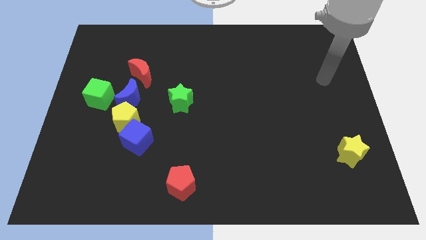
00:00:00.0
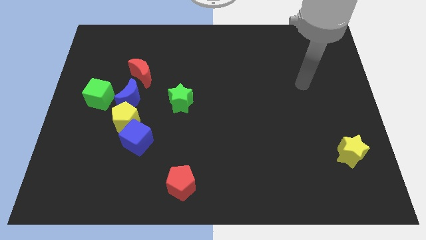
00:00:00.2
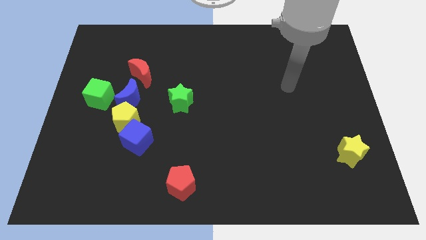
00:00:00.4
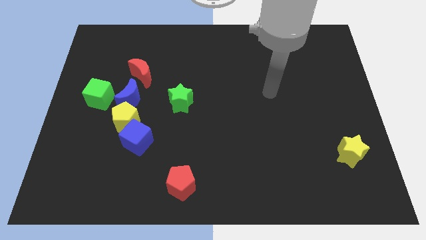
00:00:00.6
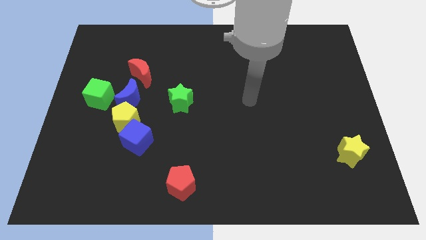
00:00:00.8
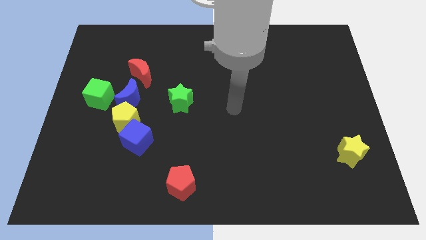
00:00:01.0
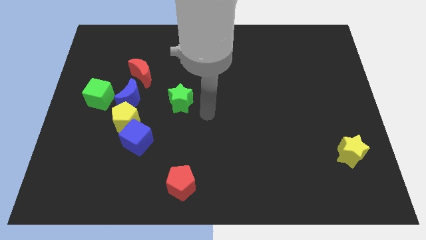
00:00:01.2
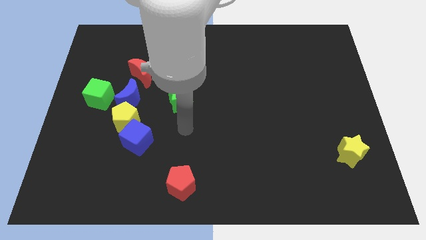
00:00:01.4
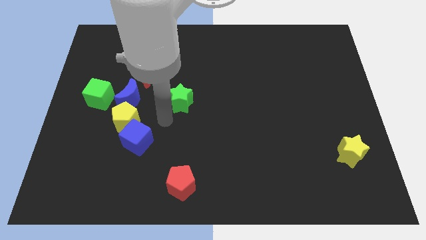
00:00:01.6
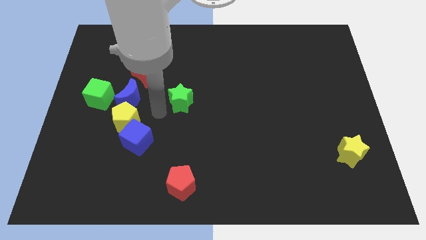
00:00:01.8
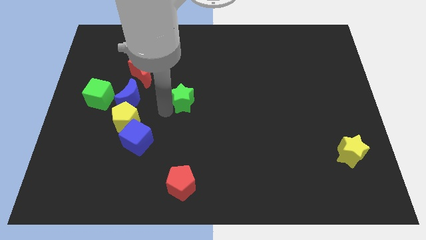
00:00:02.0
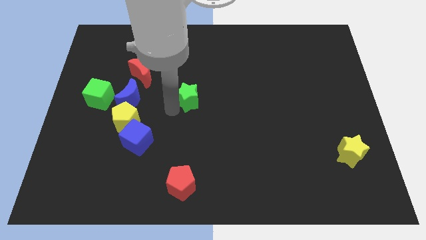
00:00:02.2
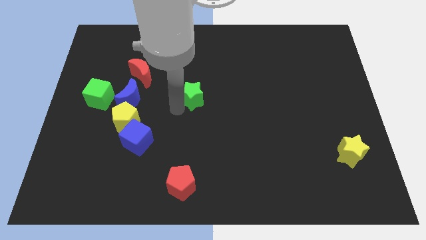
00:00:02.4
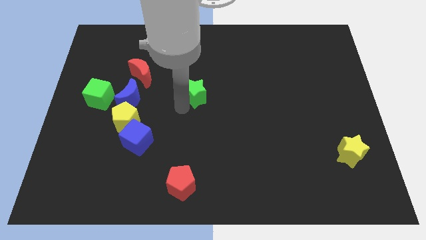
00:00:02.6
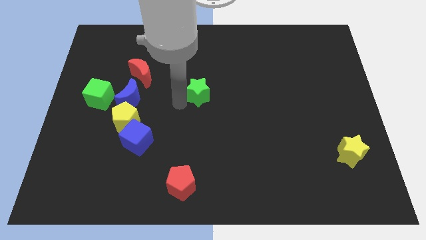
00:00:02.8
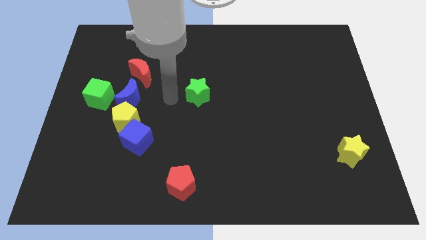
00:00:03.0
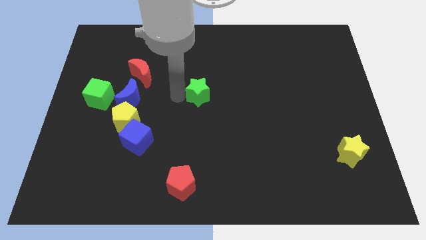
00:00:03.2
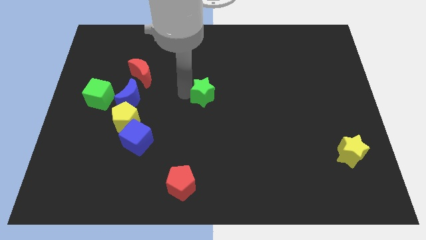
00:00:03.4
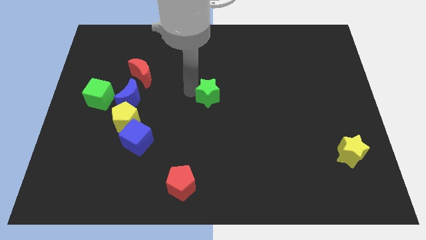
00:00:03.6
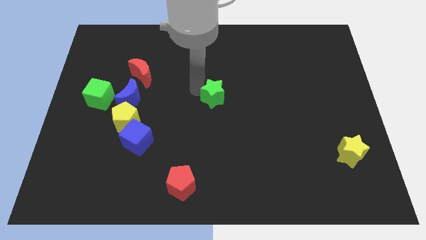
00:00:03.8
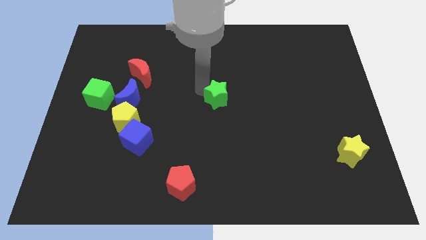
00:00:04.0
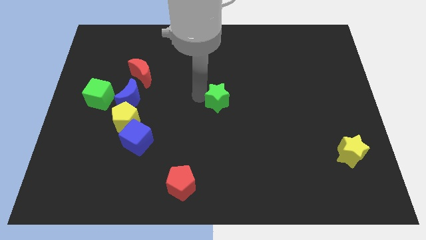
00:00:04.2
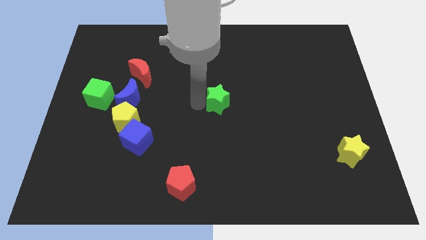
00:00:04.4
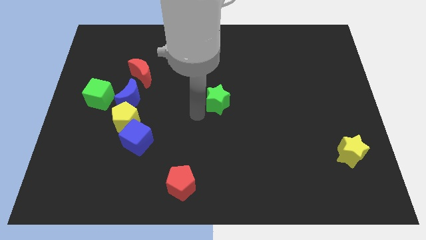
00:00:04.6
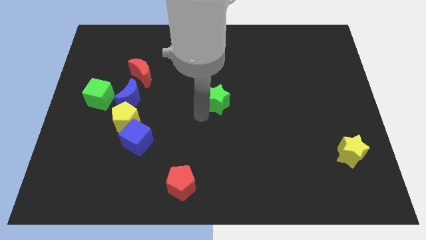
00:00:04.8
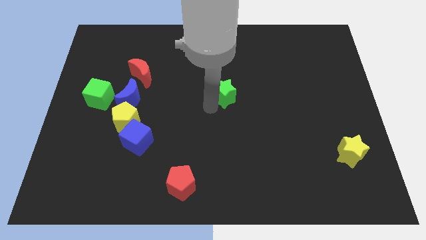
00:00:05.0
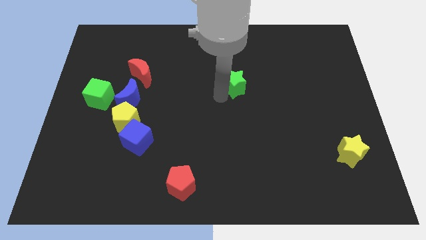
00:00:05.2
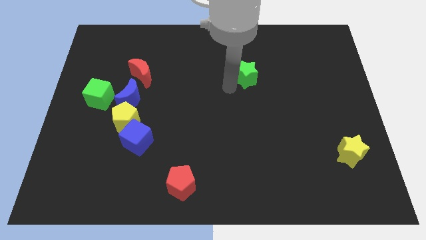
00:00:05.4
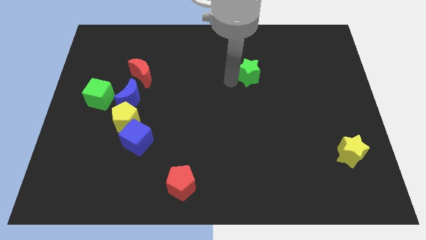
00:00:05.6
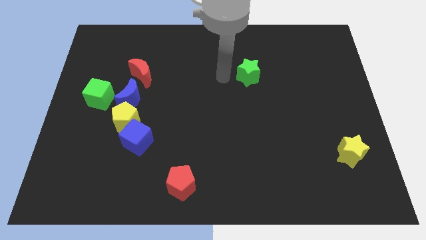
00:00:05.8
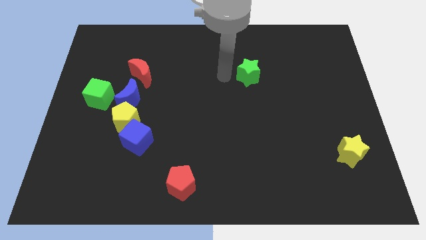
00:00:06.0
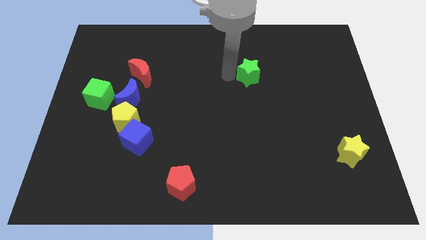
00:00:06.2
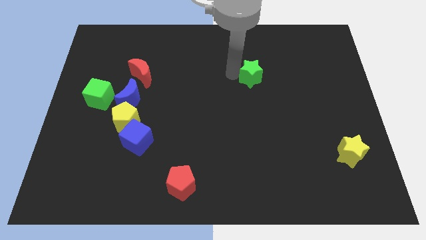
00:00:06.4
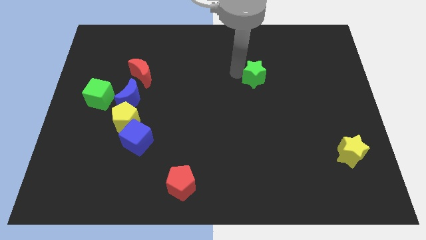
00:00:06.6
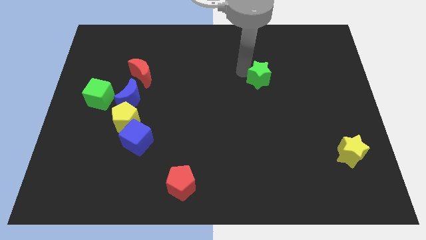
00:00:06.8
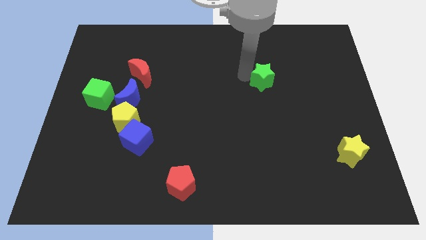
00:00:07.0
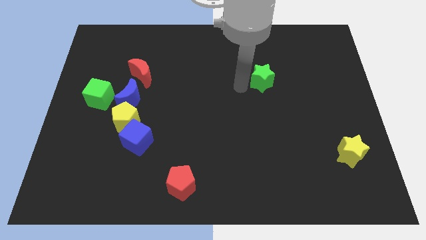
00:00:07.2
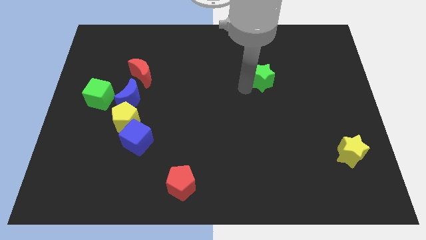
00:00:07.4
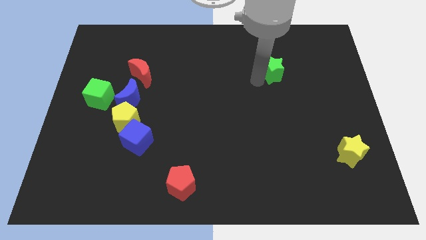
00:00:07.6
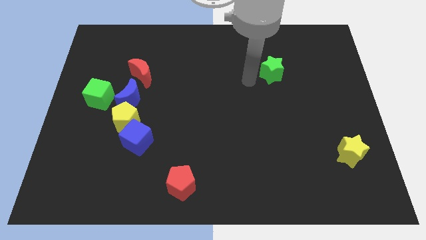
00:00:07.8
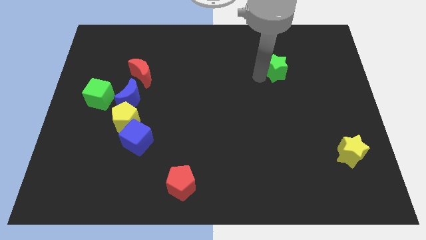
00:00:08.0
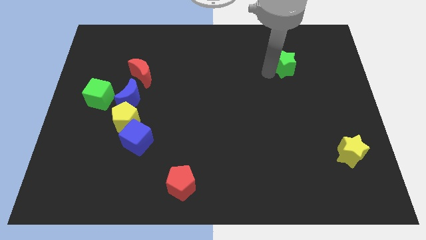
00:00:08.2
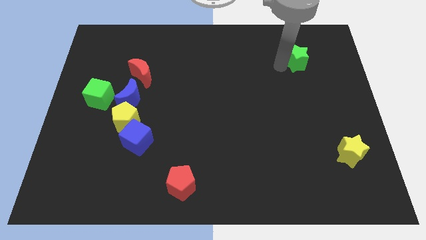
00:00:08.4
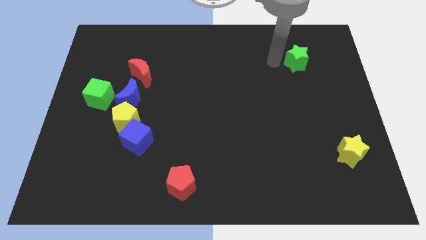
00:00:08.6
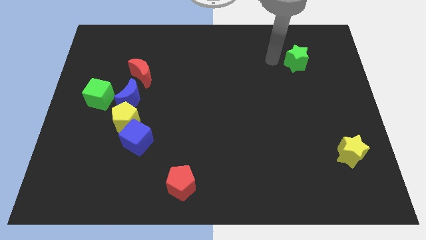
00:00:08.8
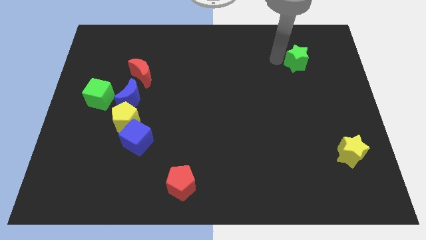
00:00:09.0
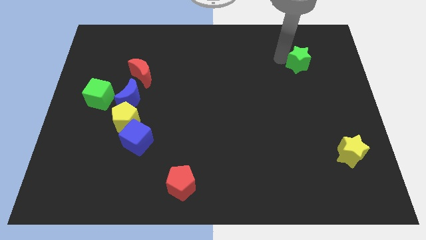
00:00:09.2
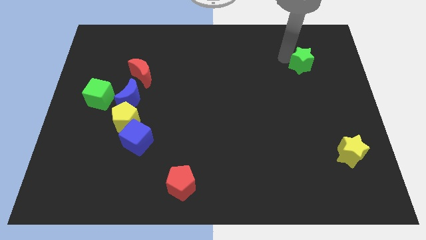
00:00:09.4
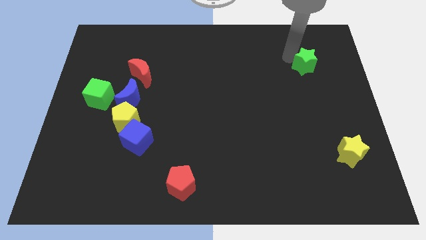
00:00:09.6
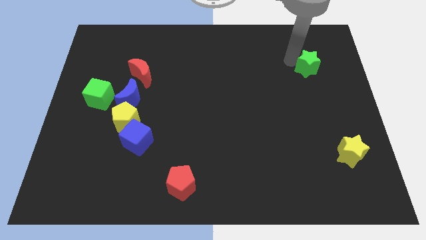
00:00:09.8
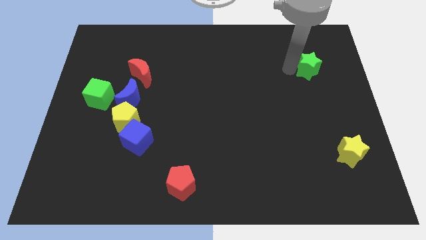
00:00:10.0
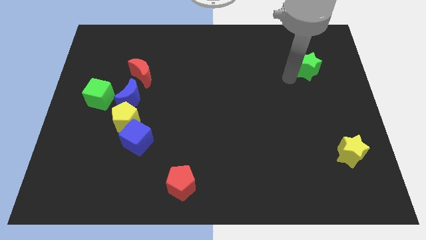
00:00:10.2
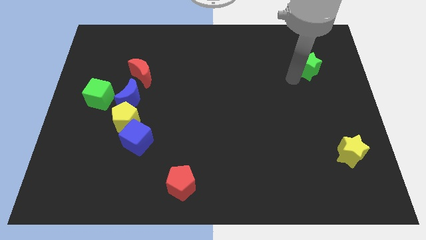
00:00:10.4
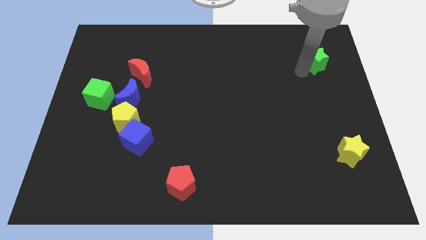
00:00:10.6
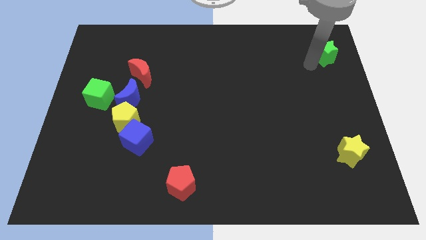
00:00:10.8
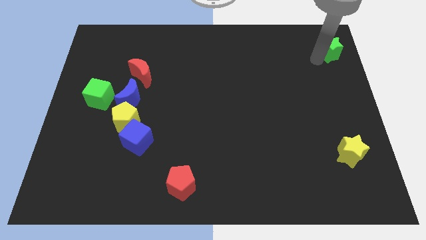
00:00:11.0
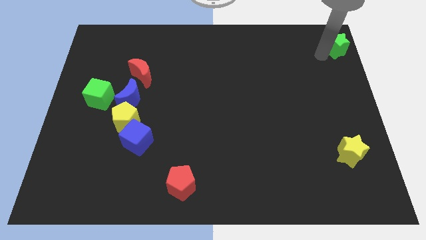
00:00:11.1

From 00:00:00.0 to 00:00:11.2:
put the green star to the top right of the board

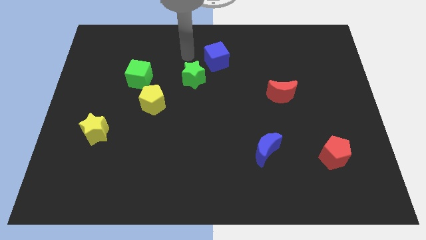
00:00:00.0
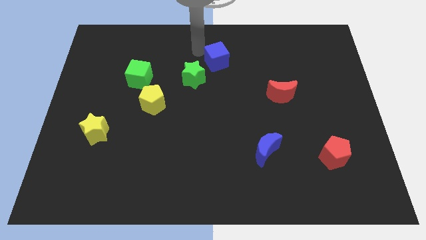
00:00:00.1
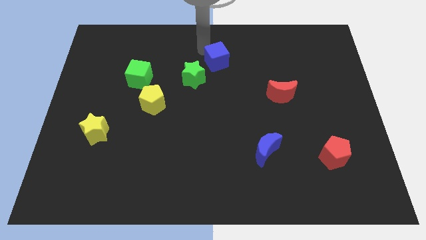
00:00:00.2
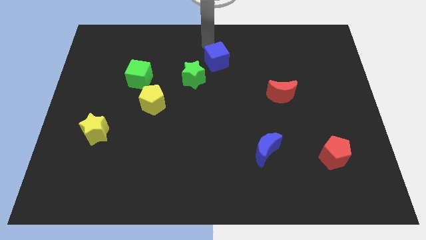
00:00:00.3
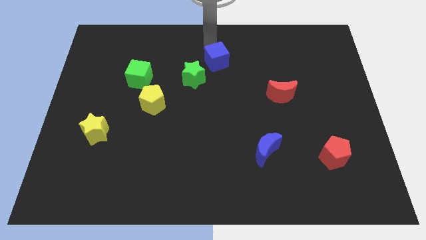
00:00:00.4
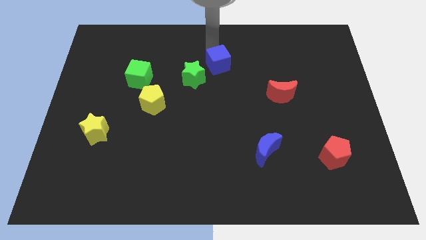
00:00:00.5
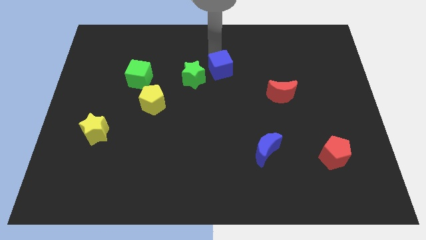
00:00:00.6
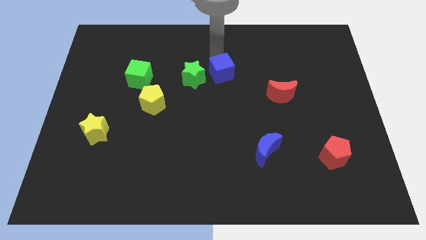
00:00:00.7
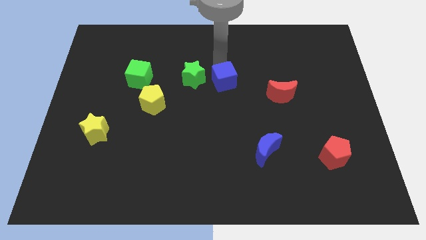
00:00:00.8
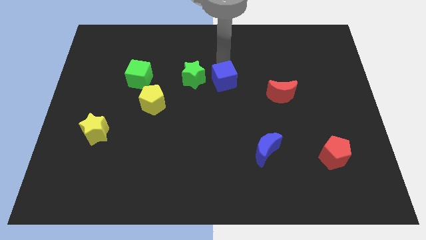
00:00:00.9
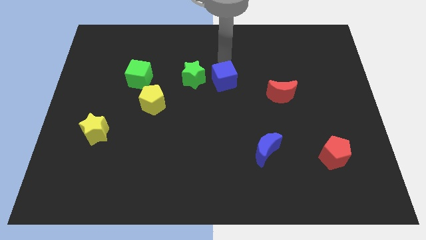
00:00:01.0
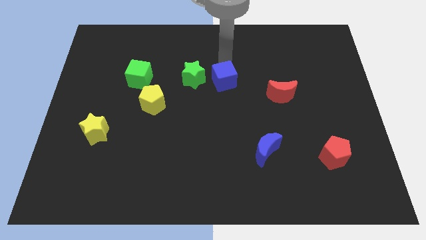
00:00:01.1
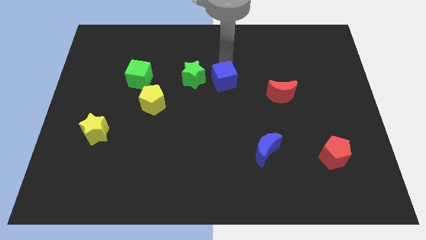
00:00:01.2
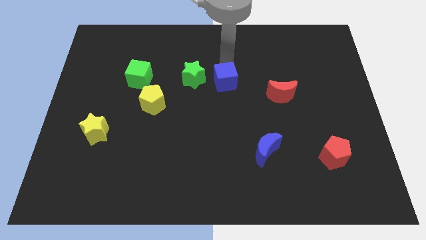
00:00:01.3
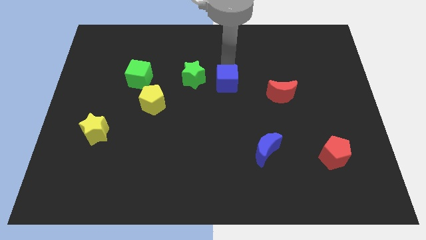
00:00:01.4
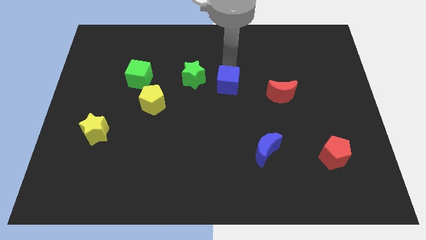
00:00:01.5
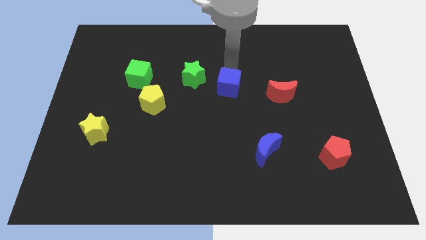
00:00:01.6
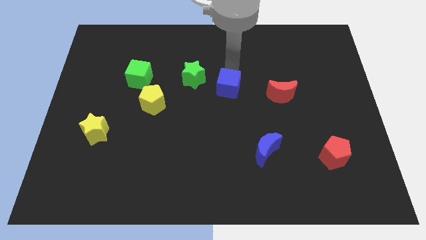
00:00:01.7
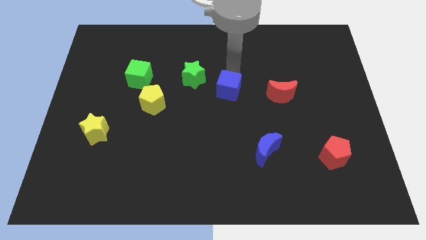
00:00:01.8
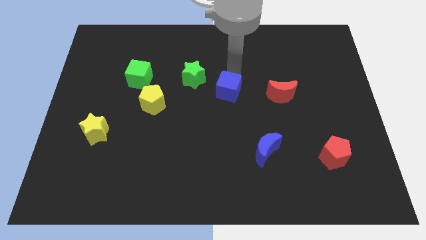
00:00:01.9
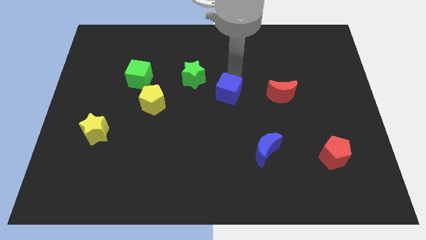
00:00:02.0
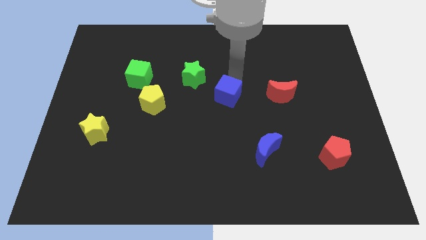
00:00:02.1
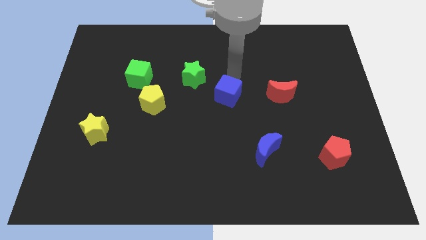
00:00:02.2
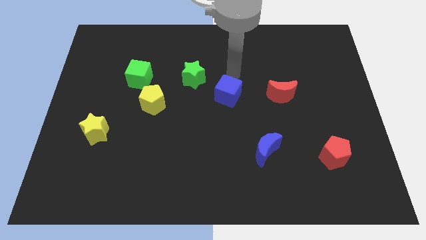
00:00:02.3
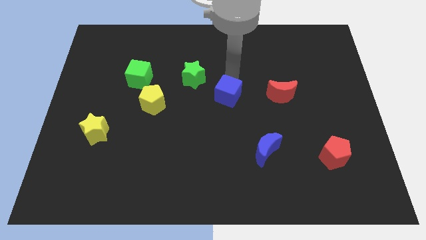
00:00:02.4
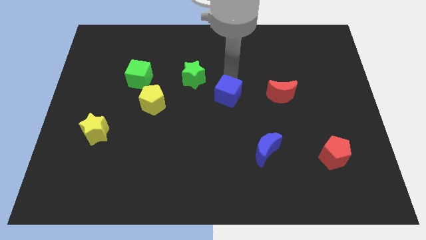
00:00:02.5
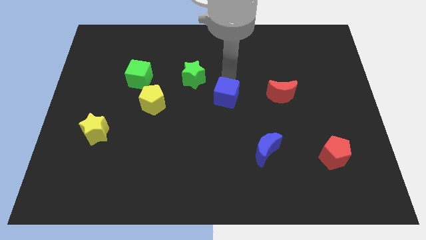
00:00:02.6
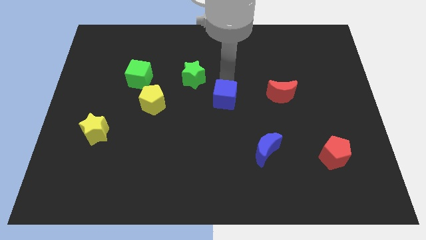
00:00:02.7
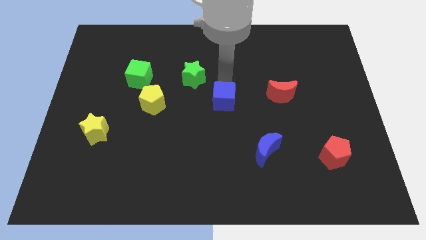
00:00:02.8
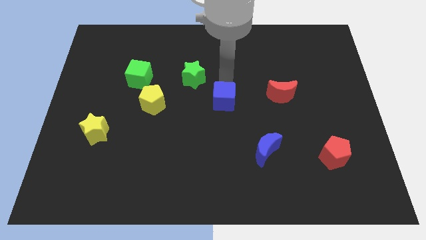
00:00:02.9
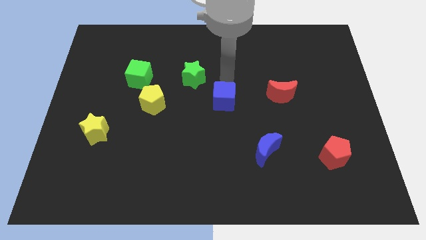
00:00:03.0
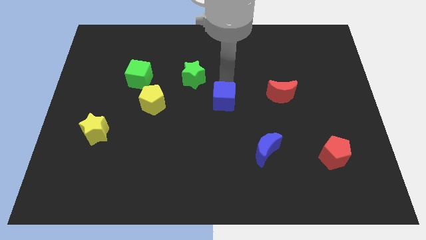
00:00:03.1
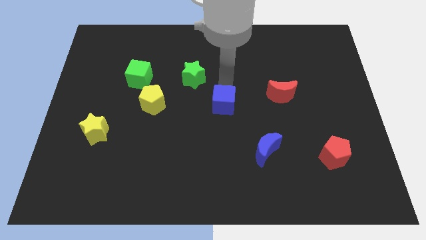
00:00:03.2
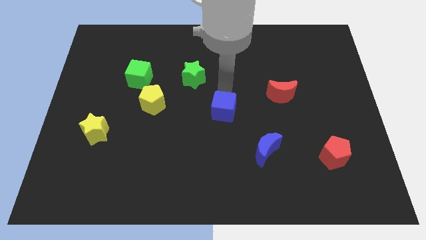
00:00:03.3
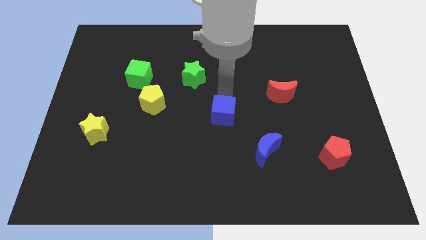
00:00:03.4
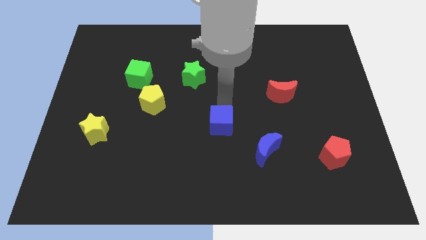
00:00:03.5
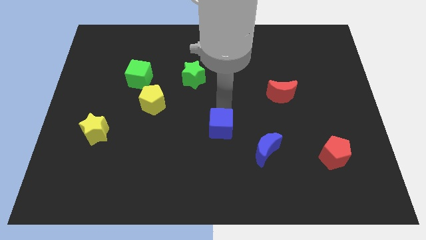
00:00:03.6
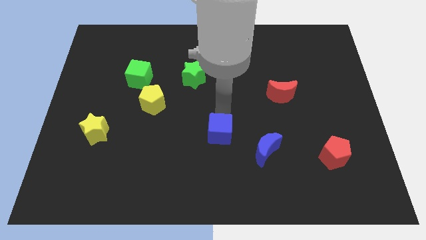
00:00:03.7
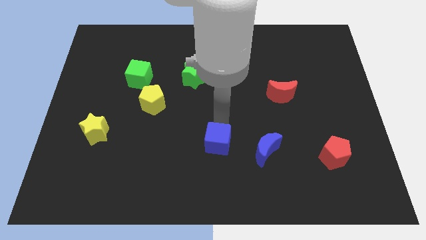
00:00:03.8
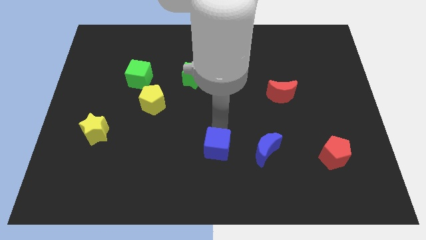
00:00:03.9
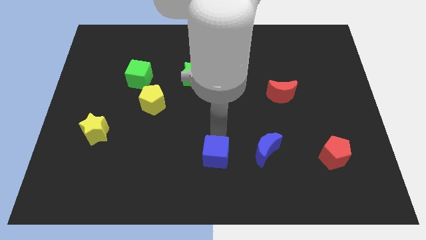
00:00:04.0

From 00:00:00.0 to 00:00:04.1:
put the blue cube to the bottom side
